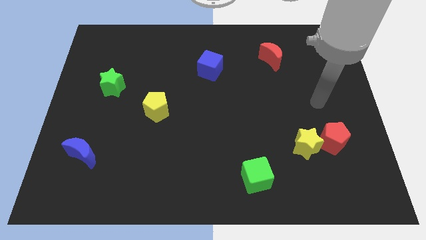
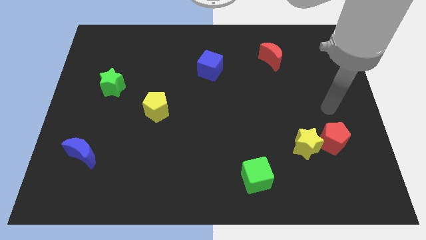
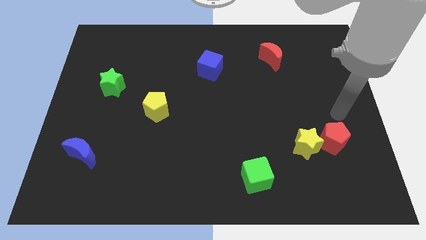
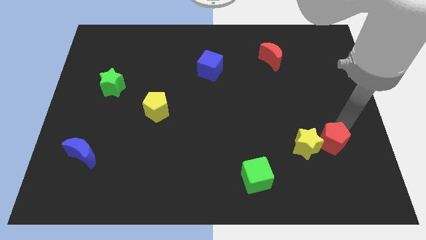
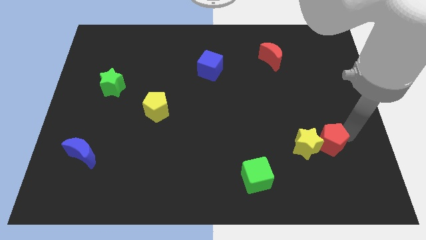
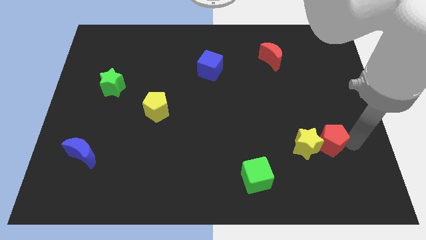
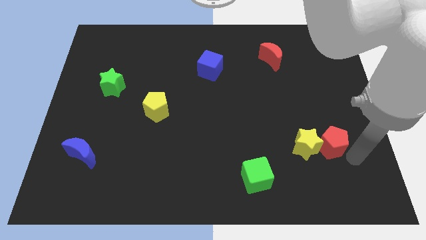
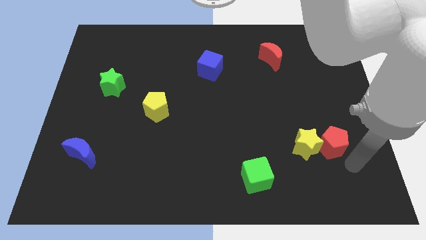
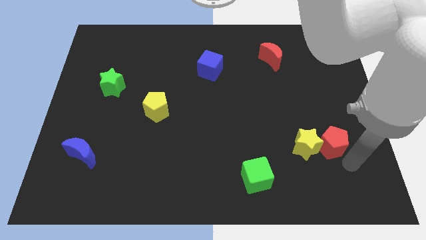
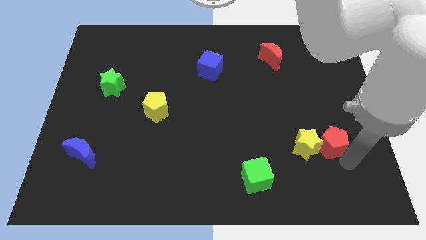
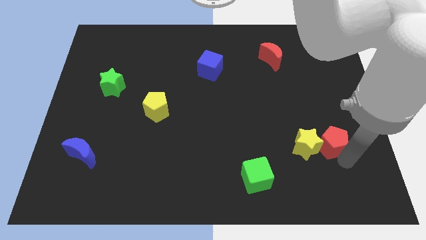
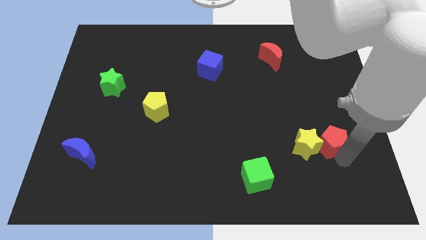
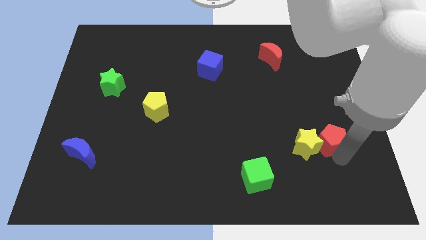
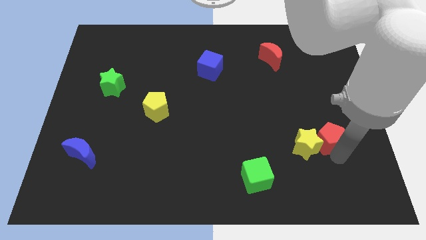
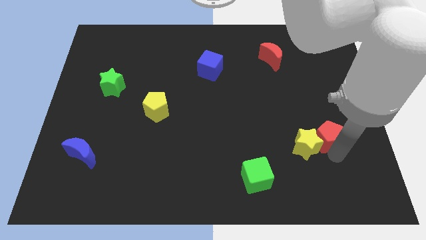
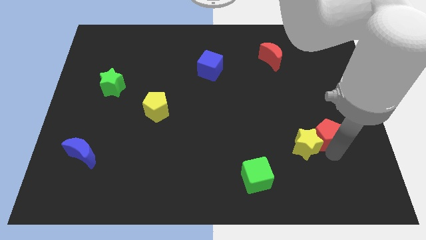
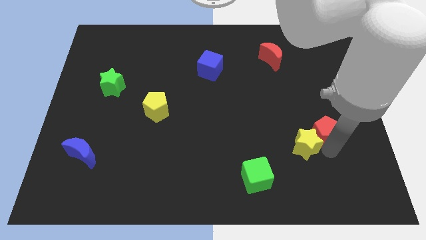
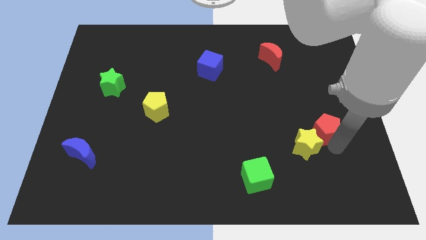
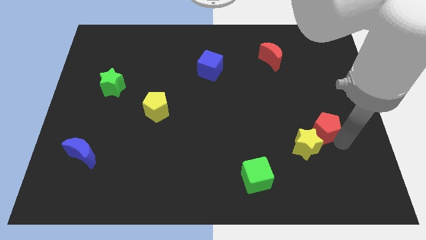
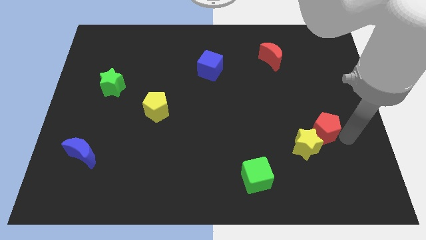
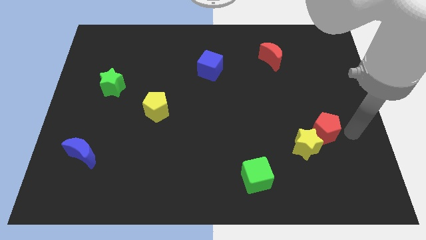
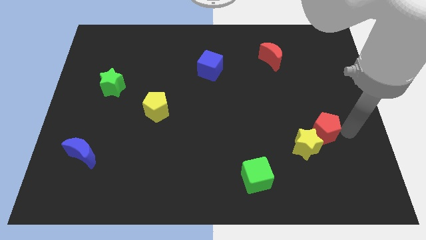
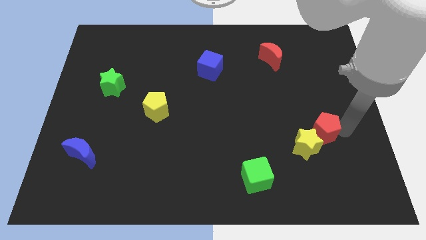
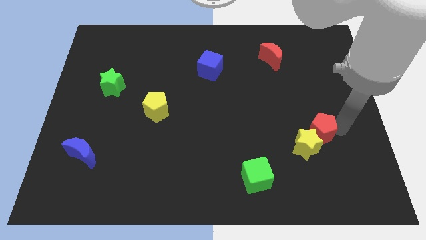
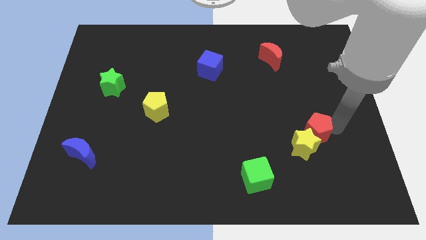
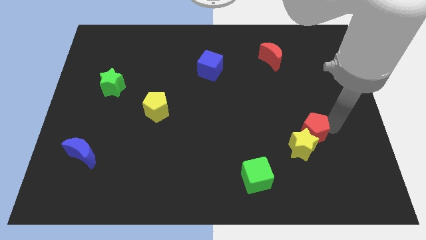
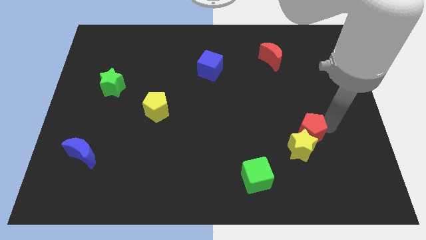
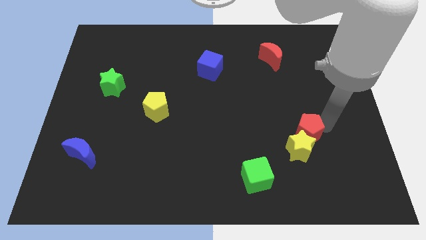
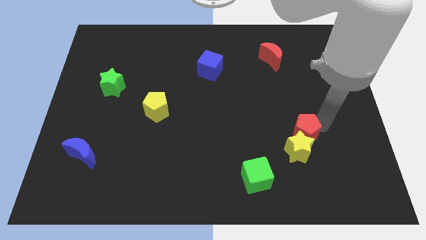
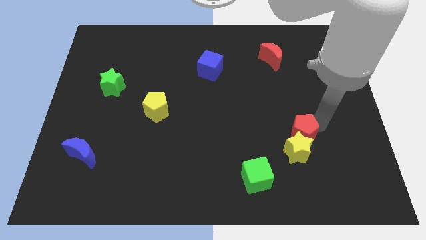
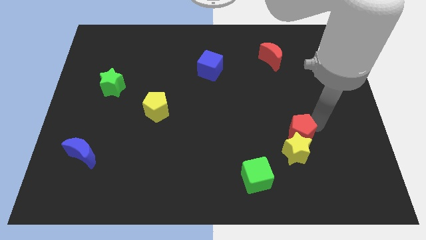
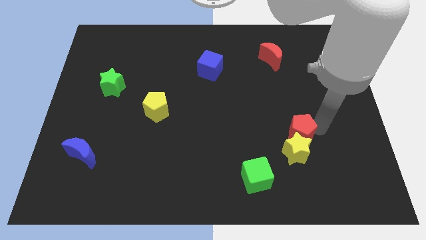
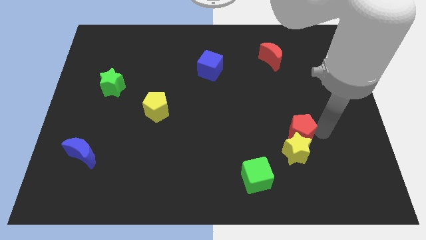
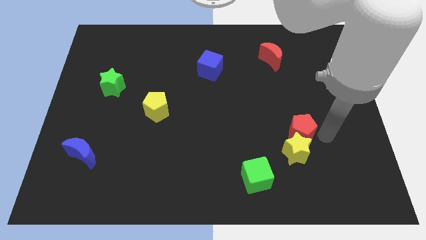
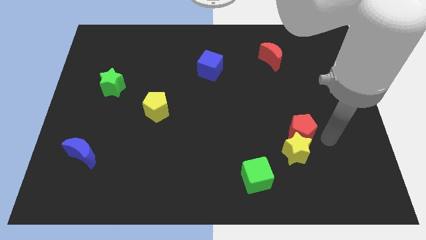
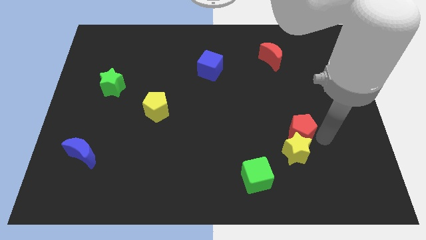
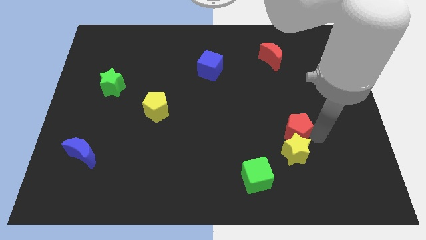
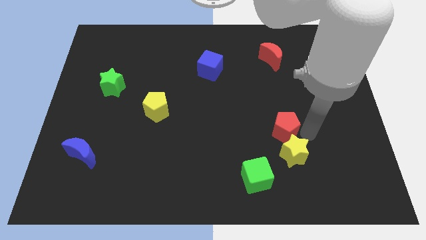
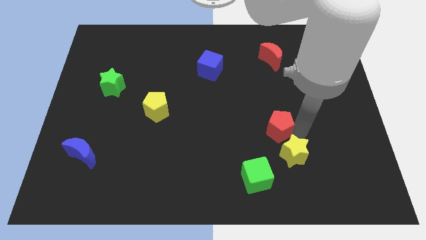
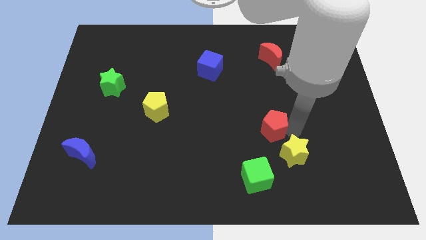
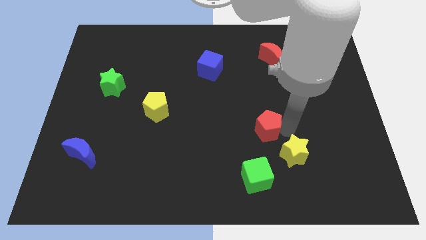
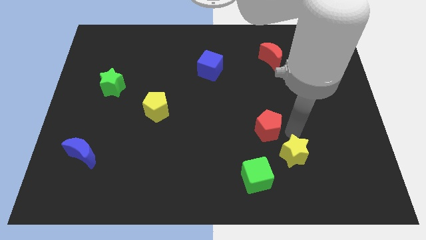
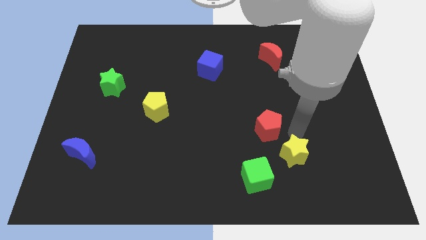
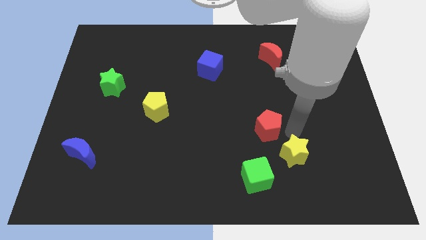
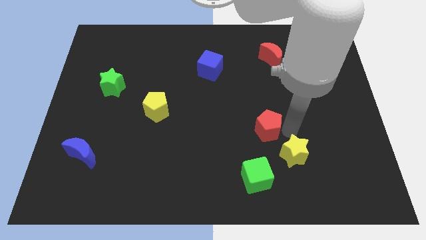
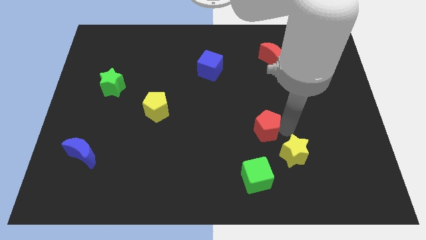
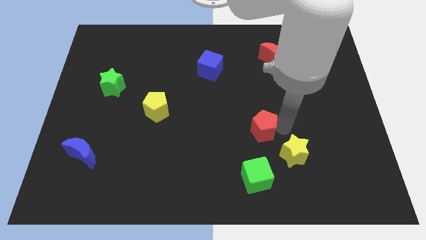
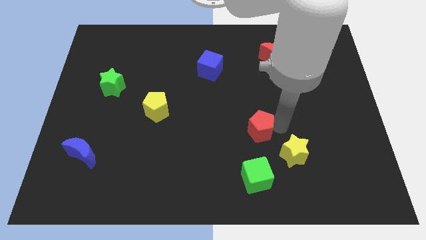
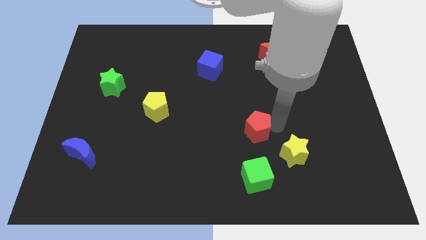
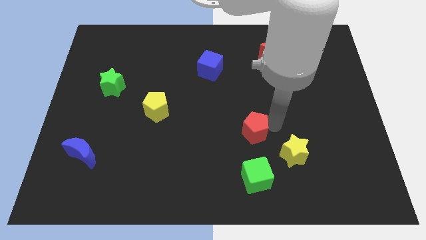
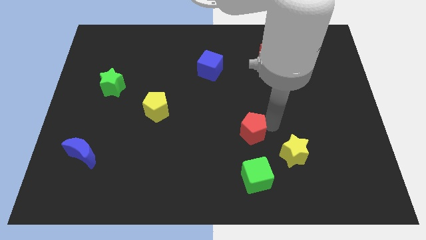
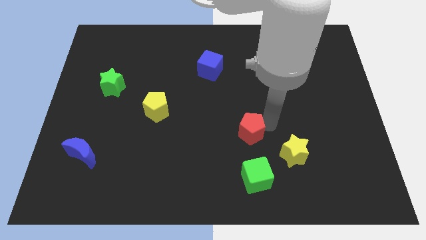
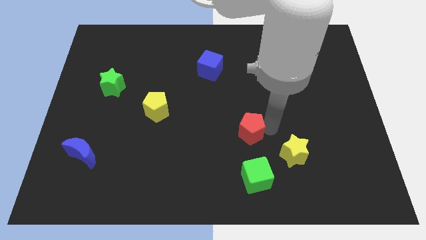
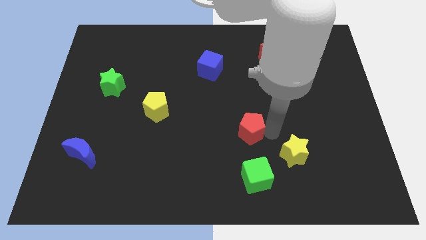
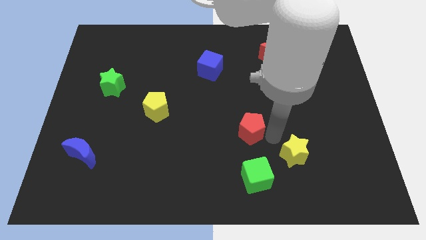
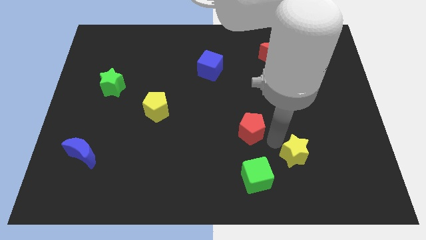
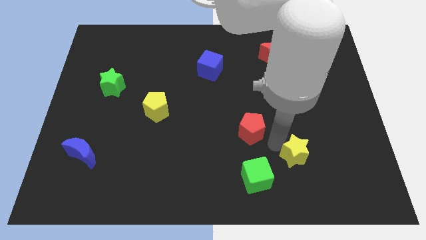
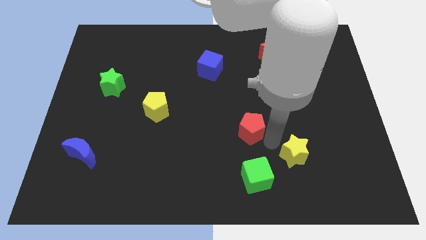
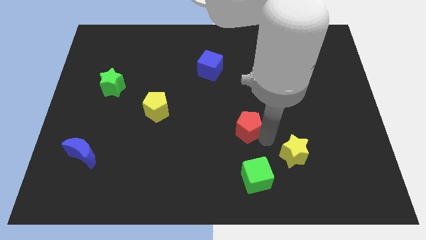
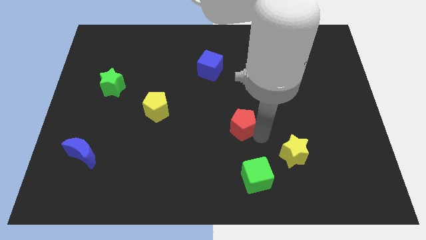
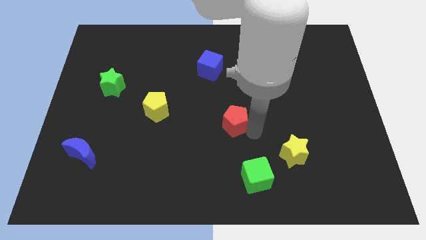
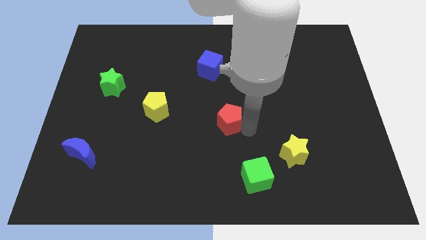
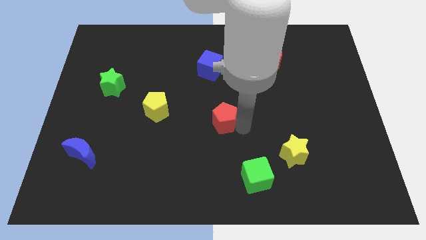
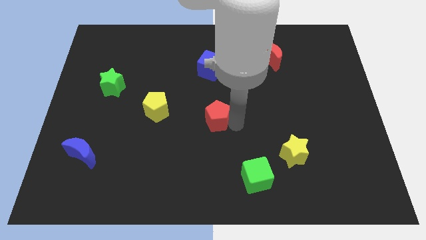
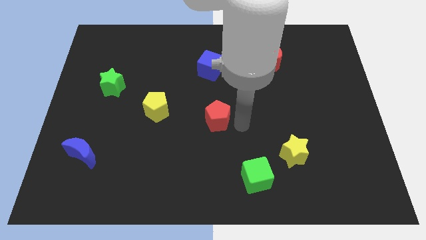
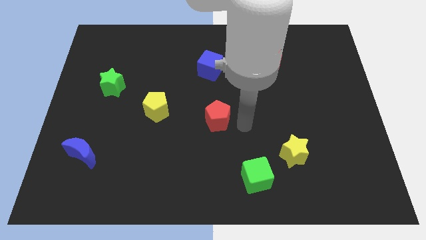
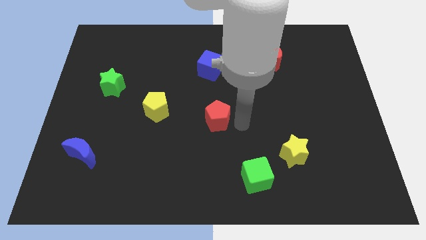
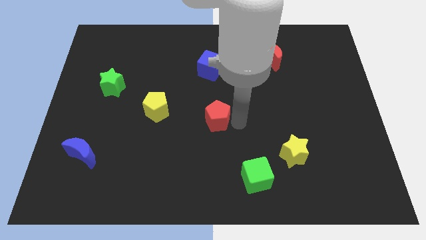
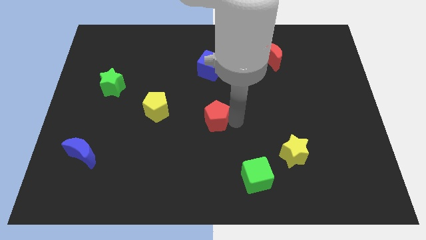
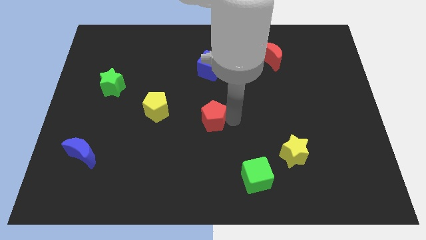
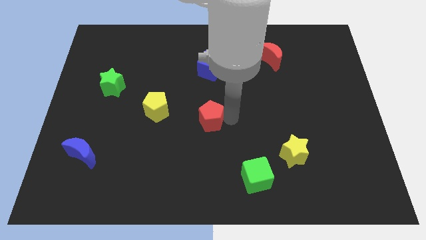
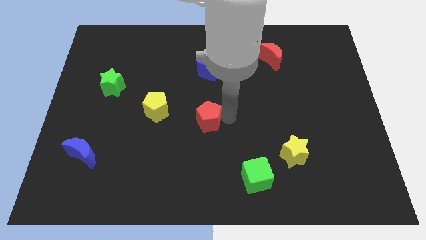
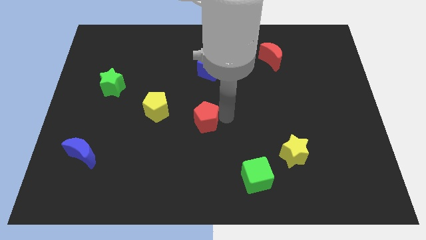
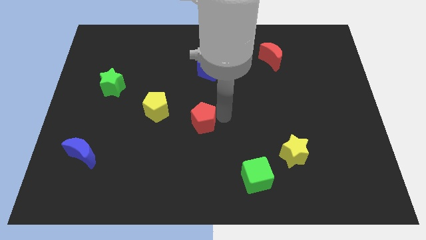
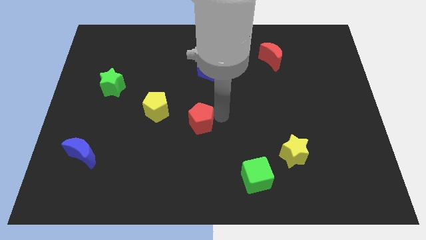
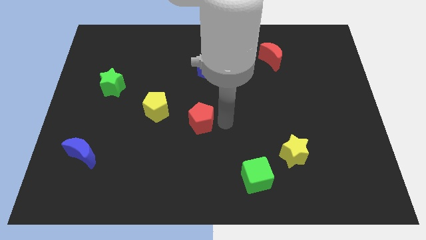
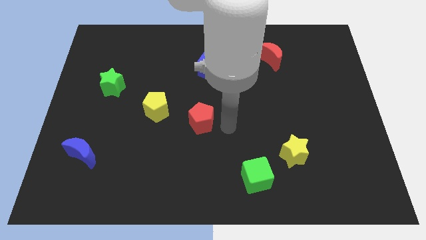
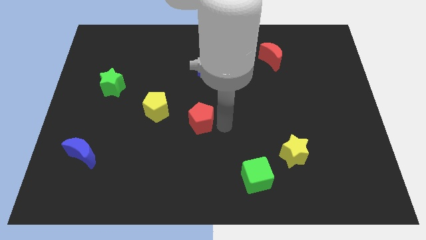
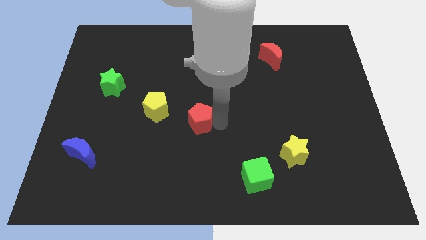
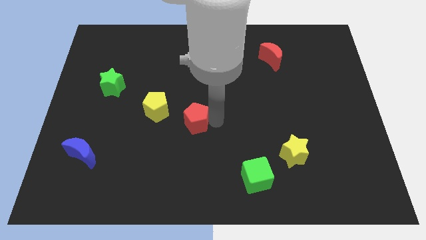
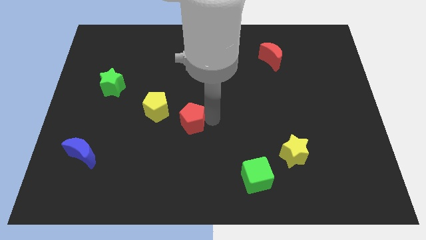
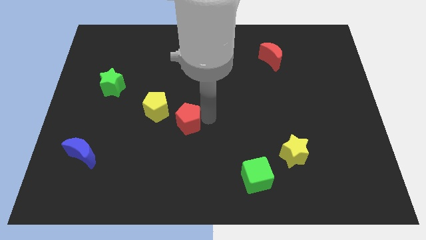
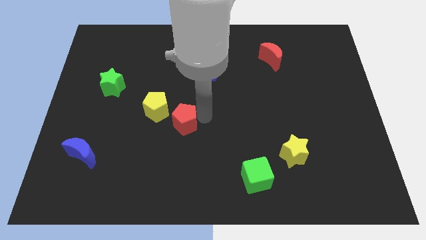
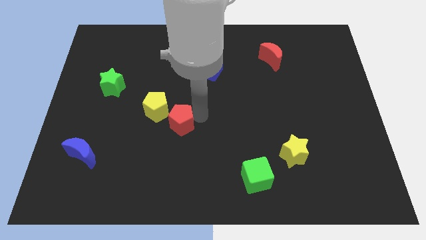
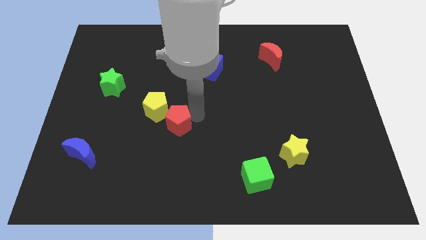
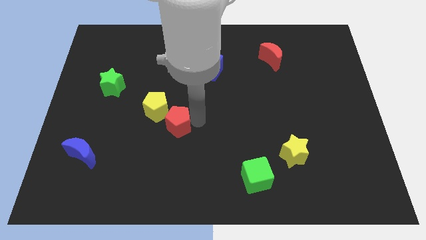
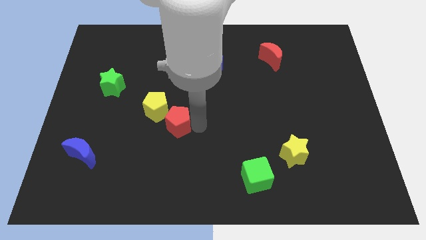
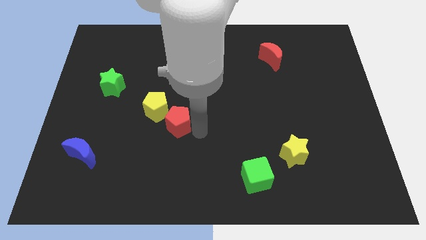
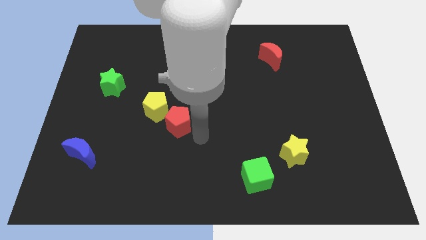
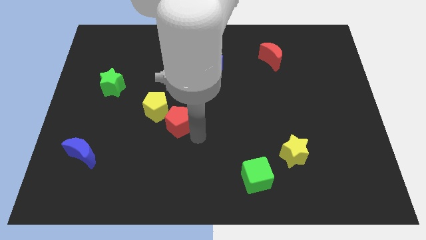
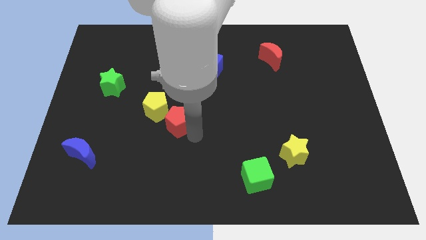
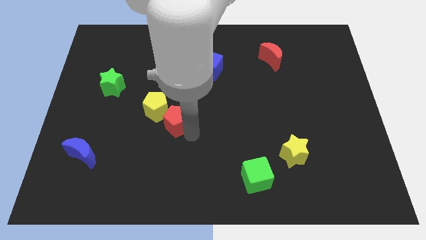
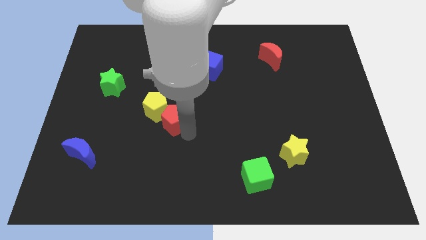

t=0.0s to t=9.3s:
put the red pentagon next to the yellow pentagon
